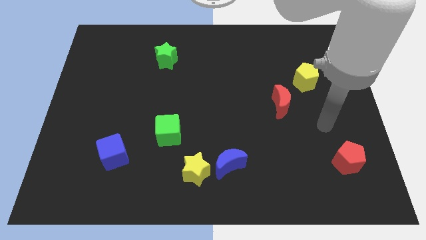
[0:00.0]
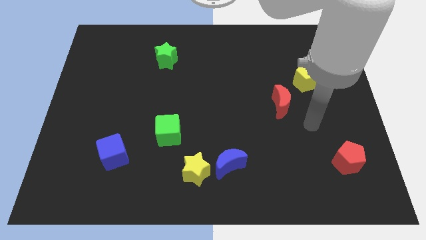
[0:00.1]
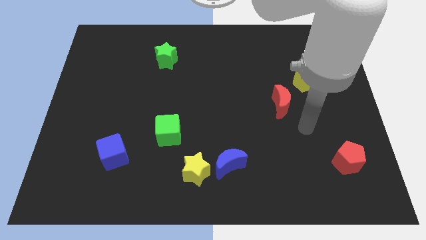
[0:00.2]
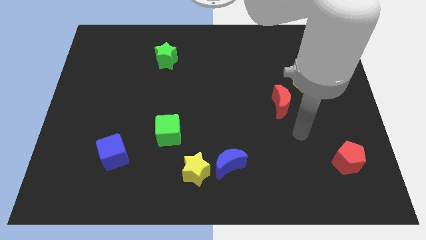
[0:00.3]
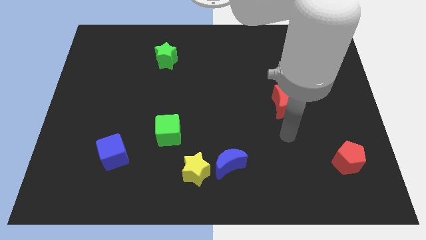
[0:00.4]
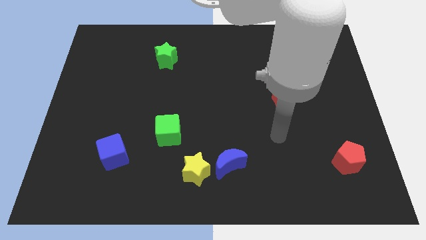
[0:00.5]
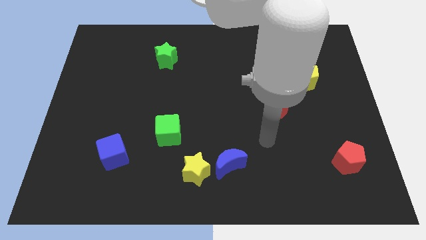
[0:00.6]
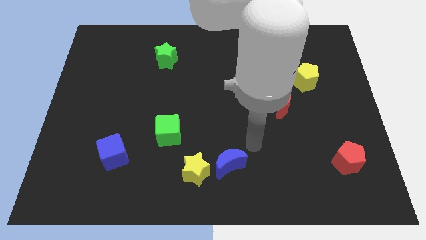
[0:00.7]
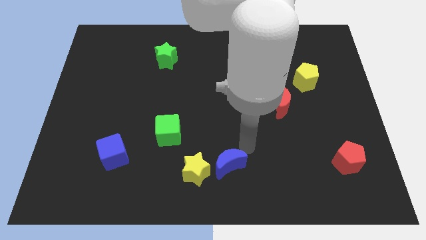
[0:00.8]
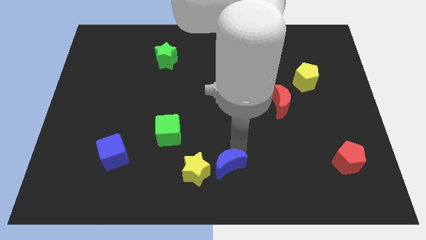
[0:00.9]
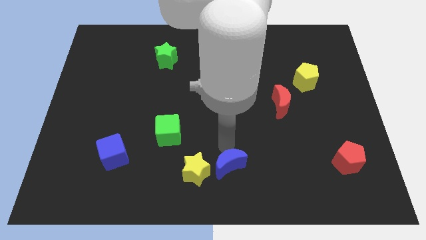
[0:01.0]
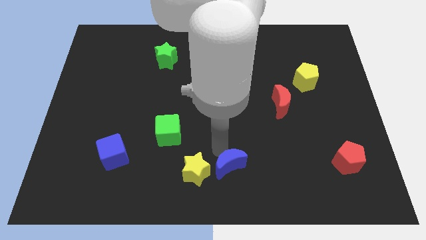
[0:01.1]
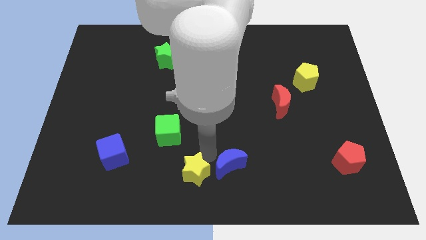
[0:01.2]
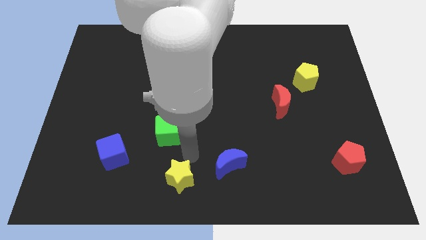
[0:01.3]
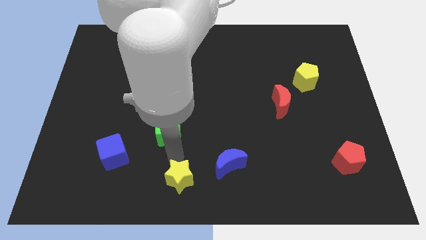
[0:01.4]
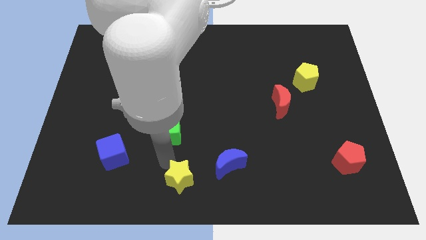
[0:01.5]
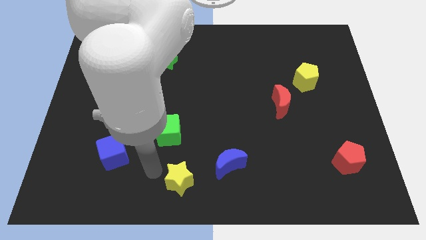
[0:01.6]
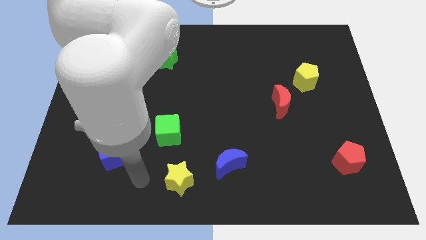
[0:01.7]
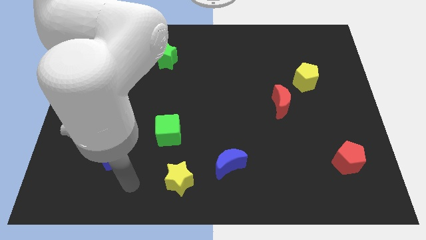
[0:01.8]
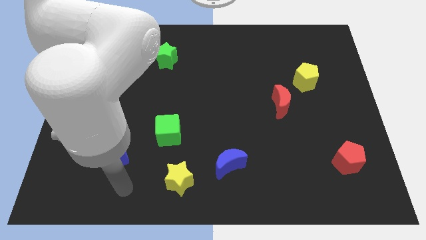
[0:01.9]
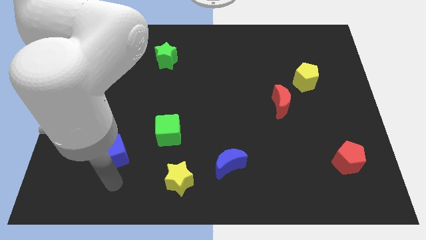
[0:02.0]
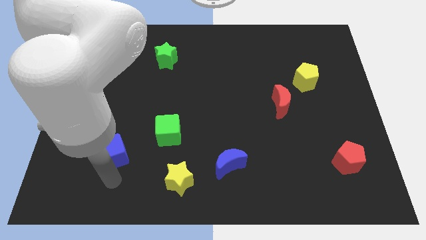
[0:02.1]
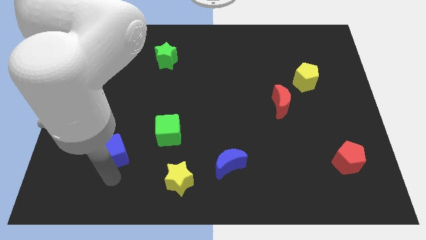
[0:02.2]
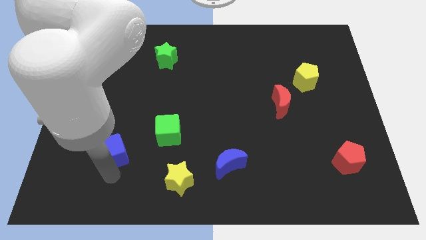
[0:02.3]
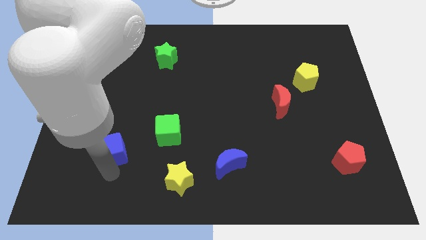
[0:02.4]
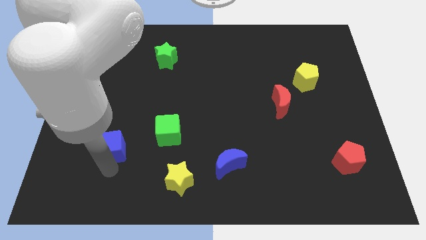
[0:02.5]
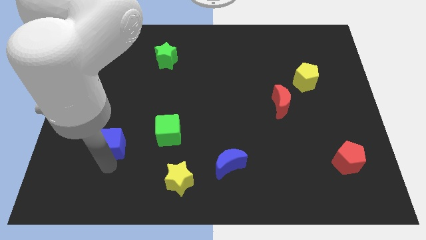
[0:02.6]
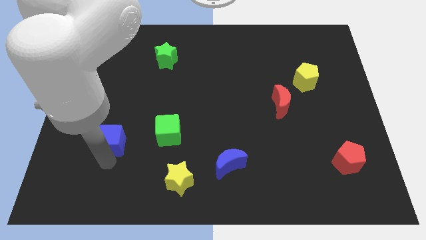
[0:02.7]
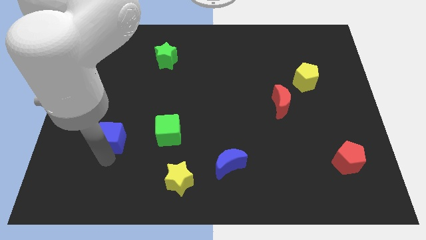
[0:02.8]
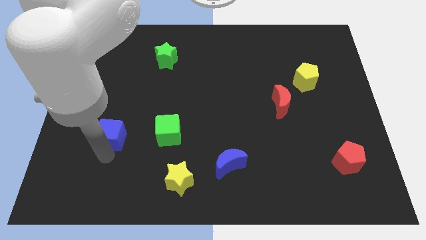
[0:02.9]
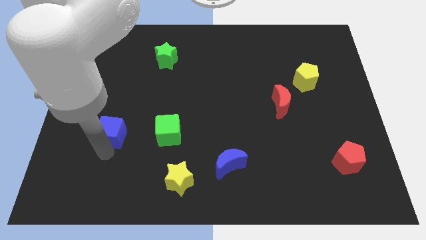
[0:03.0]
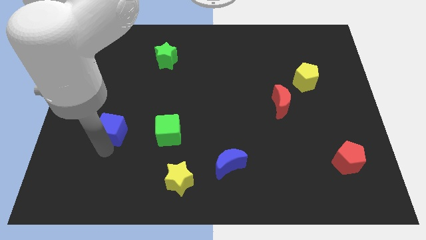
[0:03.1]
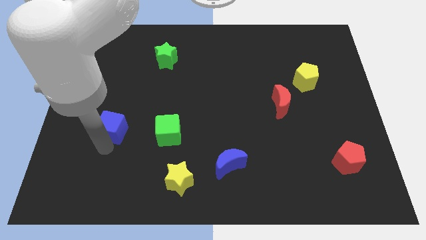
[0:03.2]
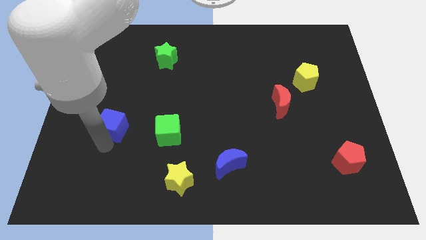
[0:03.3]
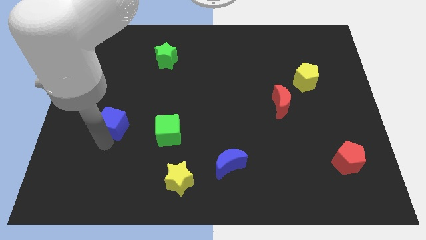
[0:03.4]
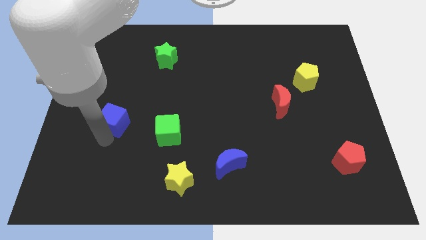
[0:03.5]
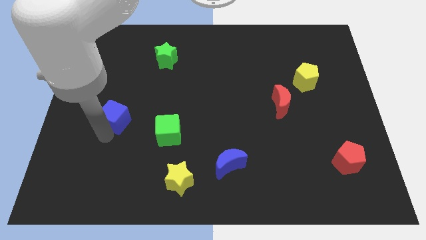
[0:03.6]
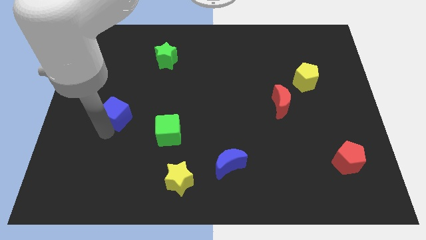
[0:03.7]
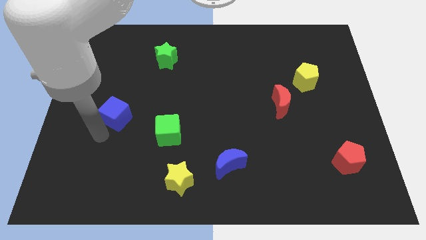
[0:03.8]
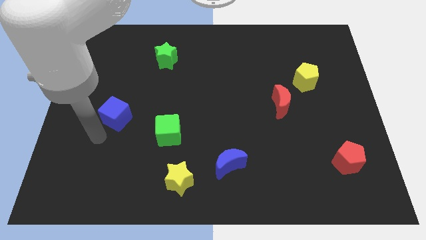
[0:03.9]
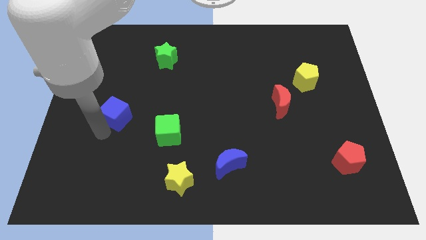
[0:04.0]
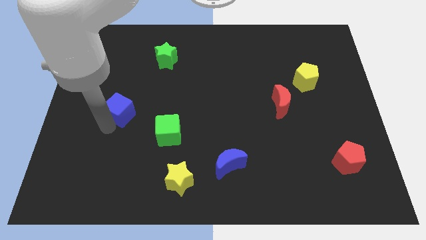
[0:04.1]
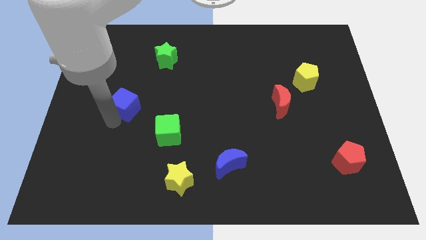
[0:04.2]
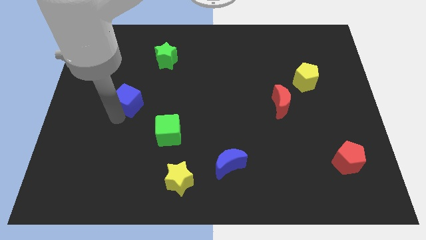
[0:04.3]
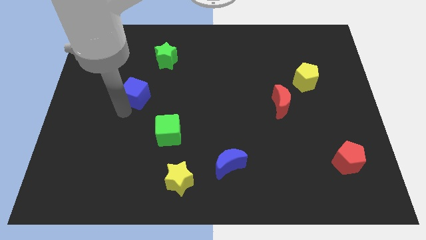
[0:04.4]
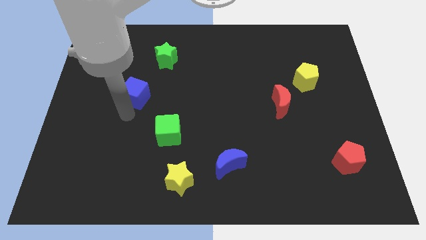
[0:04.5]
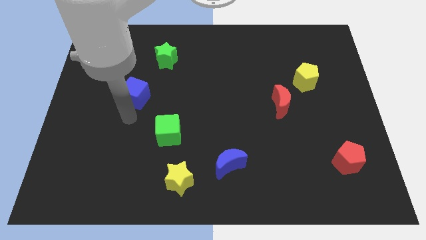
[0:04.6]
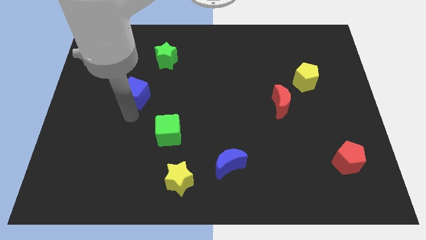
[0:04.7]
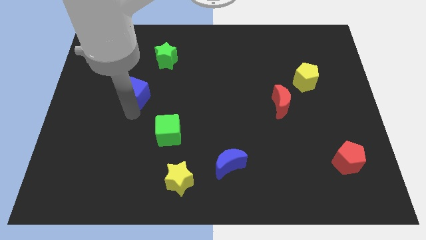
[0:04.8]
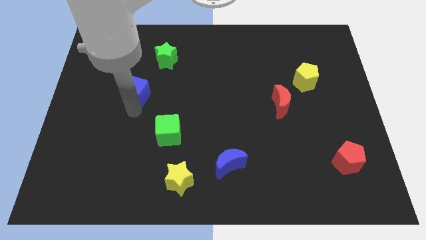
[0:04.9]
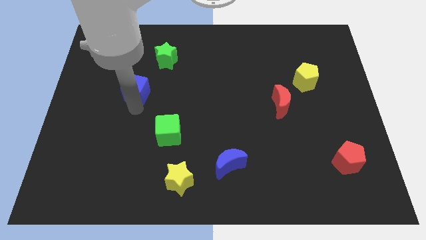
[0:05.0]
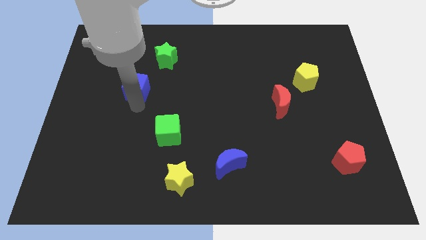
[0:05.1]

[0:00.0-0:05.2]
push the blue cube diagonally down and to the left of the green star
